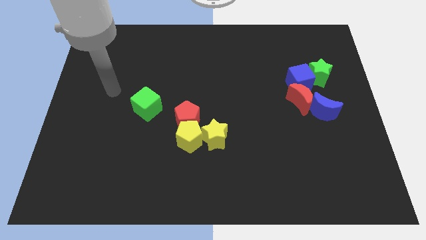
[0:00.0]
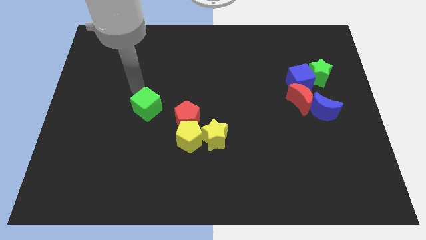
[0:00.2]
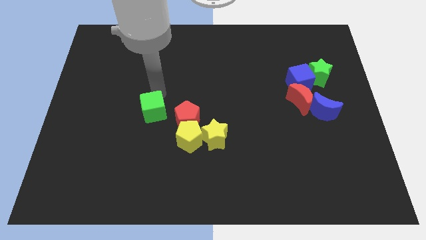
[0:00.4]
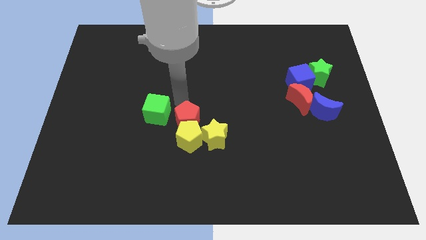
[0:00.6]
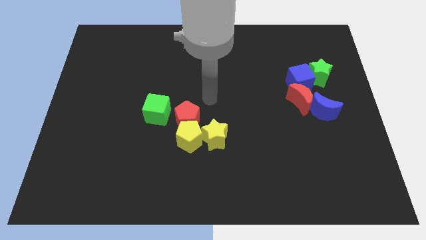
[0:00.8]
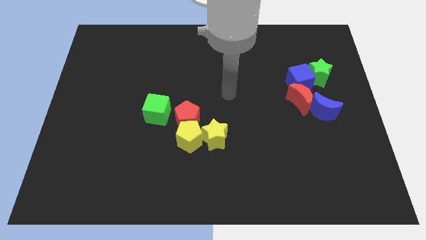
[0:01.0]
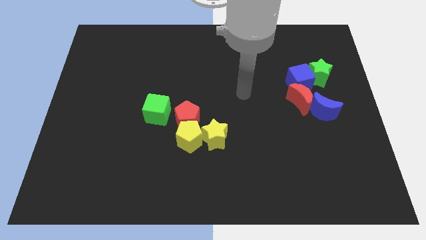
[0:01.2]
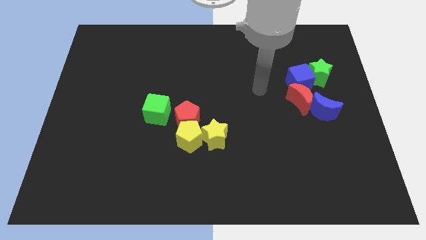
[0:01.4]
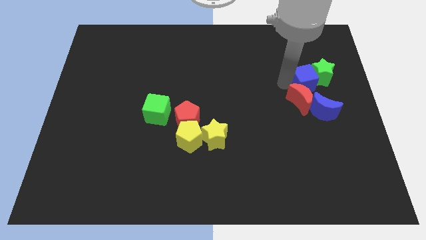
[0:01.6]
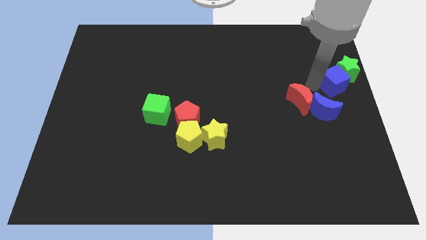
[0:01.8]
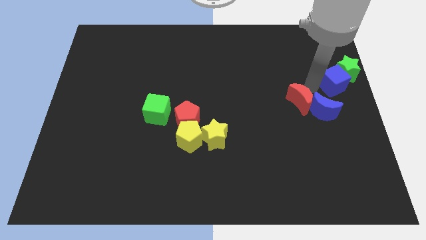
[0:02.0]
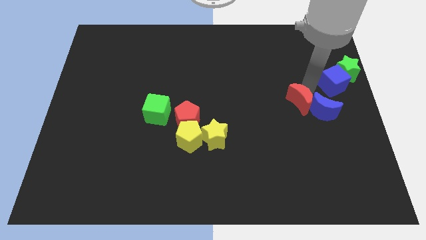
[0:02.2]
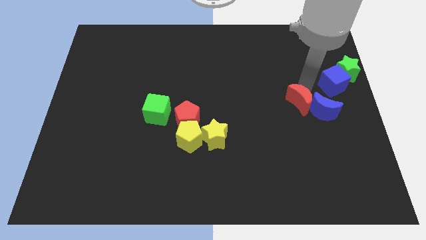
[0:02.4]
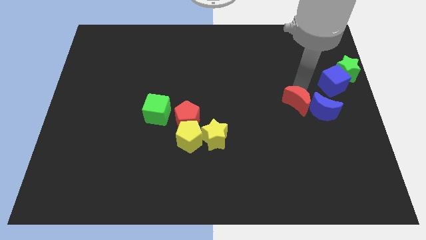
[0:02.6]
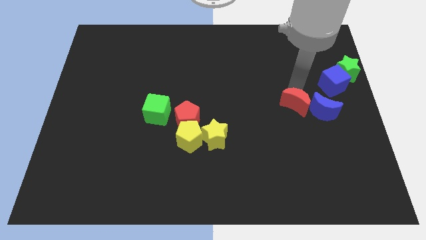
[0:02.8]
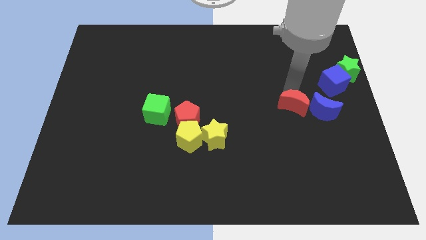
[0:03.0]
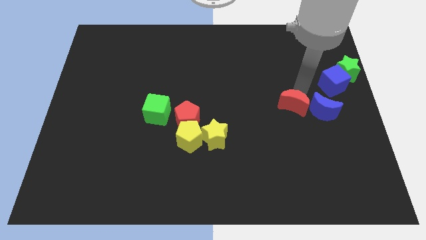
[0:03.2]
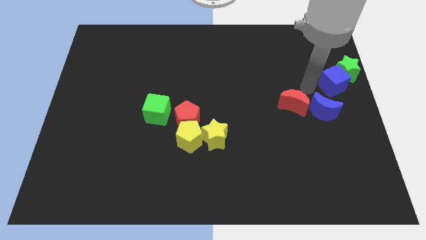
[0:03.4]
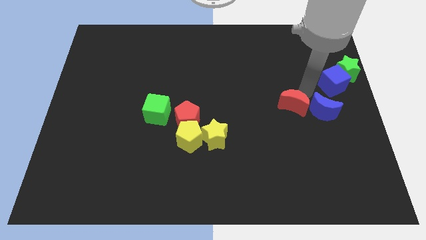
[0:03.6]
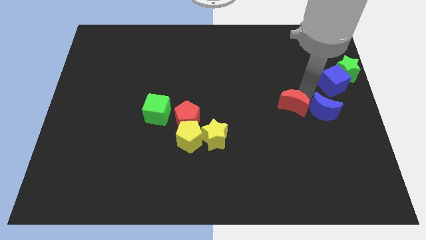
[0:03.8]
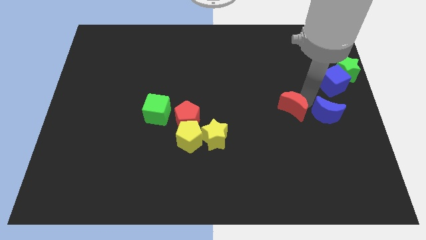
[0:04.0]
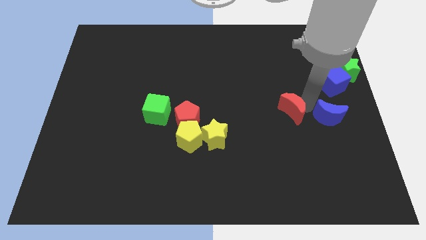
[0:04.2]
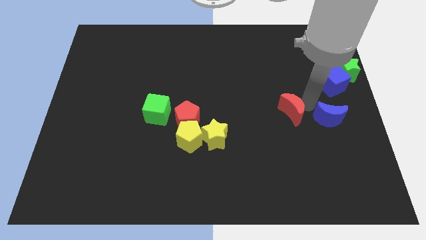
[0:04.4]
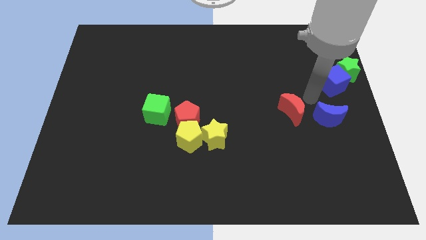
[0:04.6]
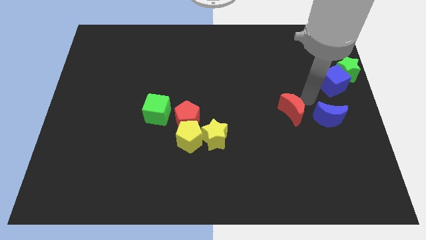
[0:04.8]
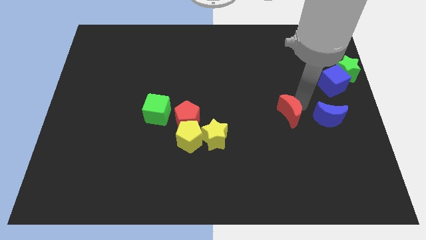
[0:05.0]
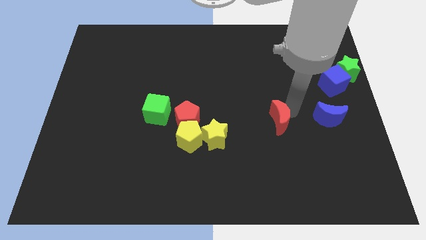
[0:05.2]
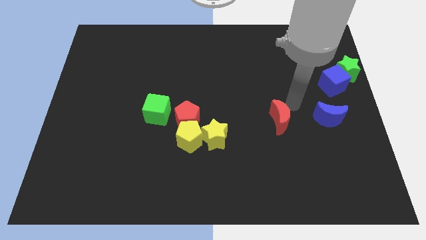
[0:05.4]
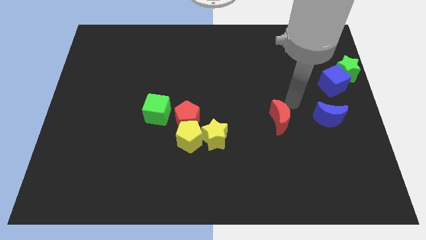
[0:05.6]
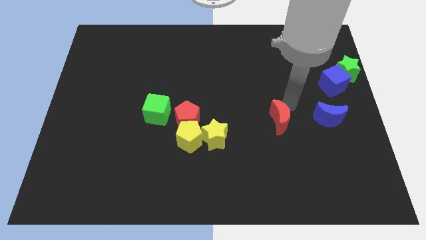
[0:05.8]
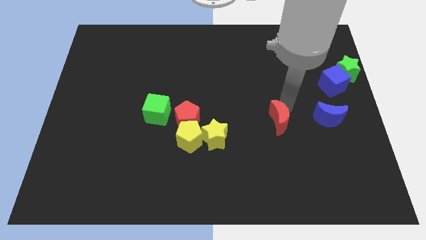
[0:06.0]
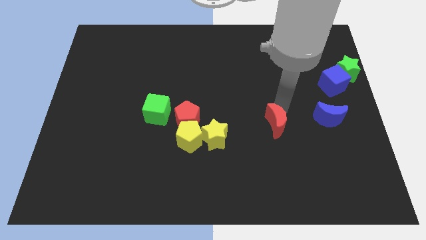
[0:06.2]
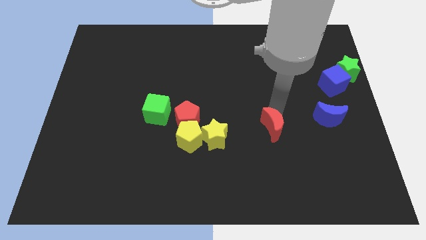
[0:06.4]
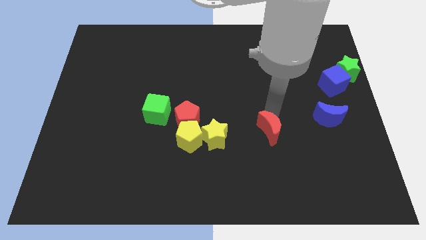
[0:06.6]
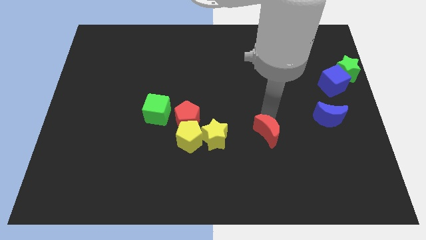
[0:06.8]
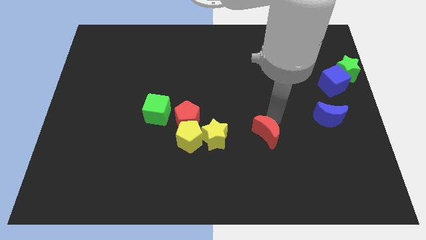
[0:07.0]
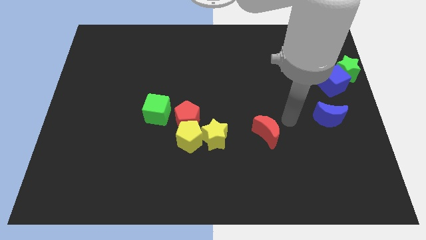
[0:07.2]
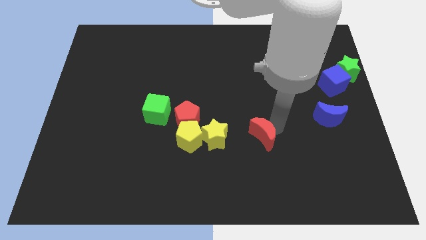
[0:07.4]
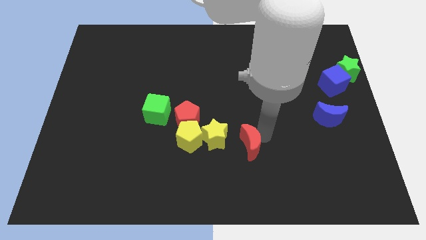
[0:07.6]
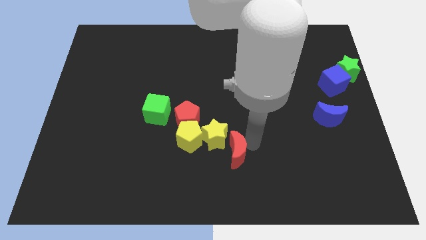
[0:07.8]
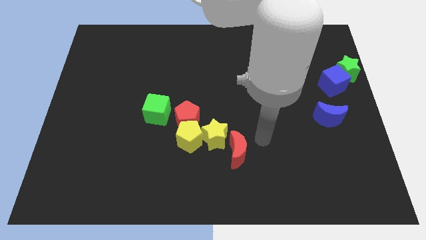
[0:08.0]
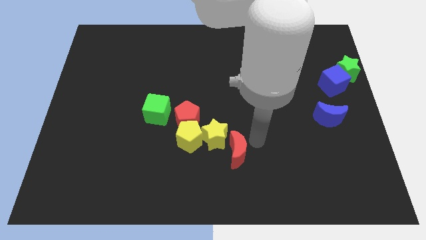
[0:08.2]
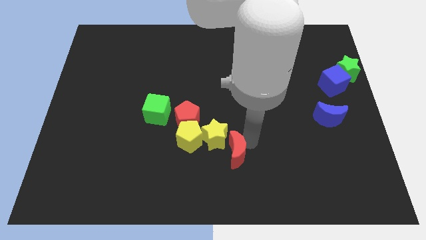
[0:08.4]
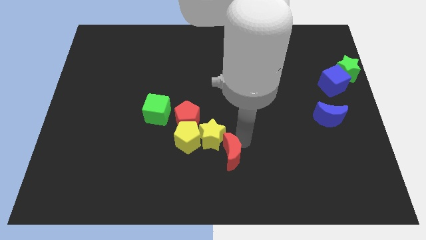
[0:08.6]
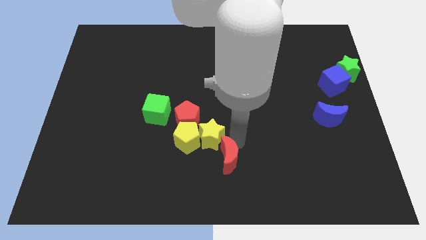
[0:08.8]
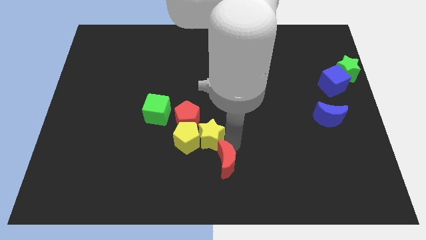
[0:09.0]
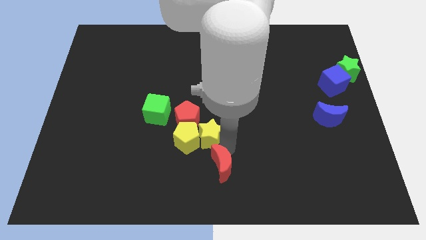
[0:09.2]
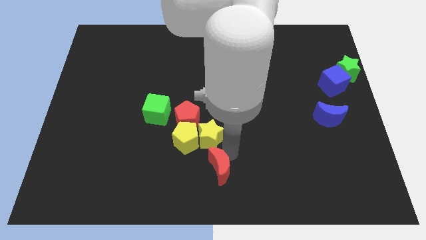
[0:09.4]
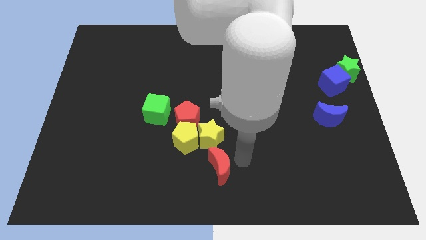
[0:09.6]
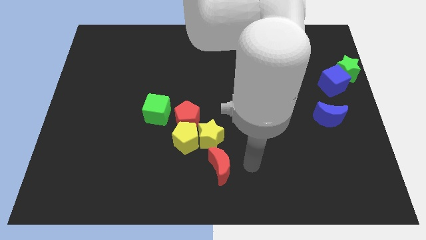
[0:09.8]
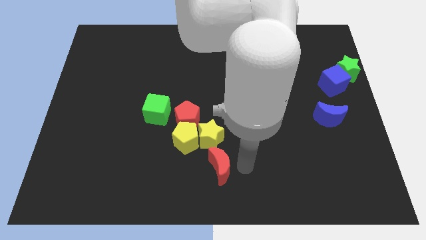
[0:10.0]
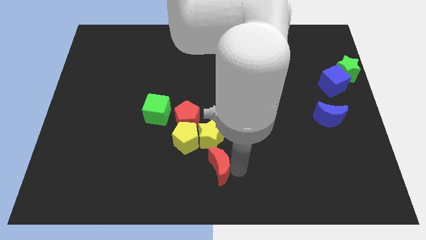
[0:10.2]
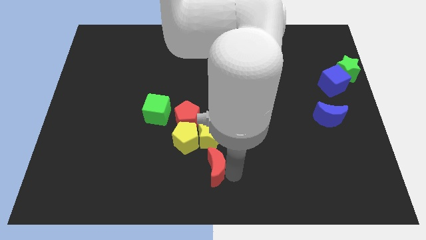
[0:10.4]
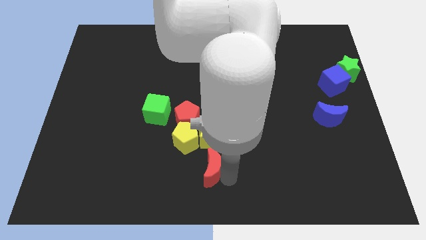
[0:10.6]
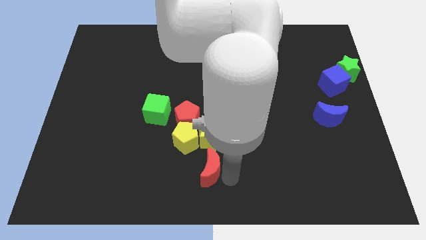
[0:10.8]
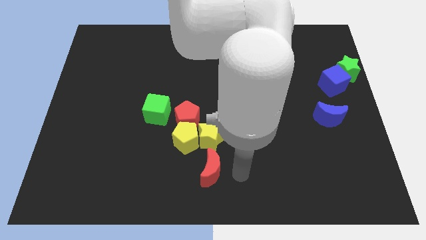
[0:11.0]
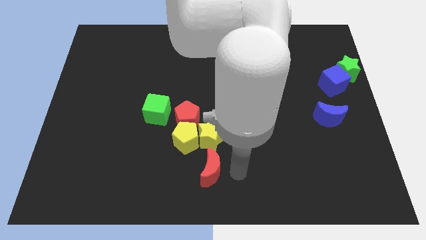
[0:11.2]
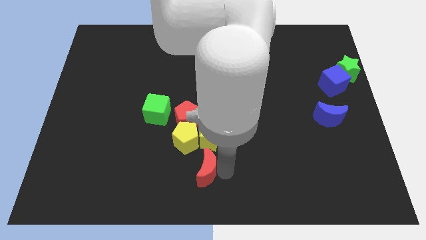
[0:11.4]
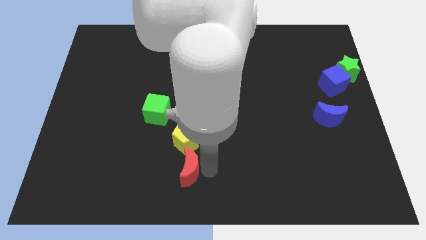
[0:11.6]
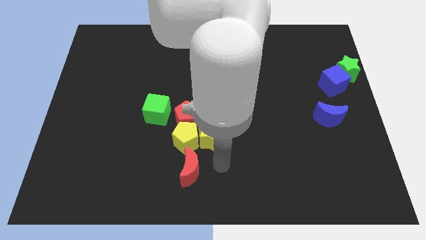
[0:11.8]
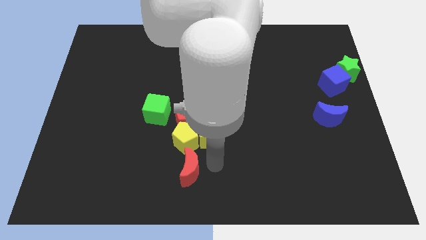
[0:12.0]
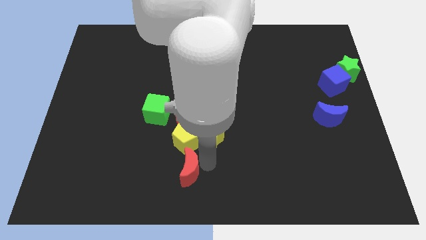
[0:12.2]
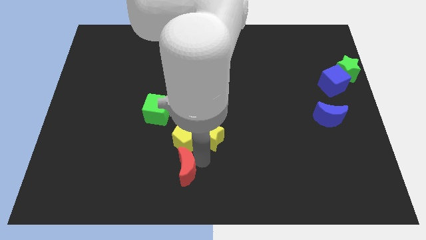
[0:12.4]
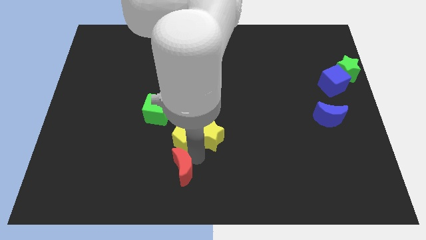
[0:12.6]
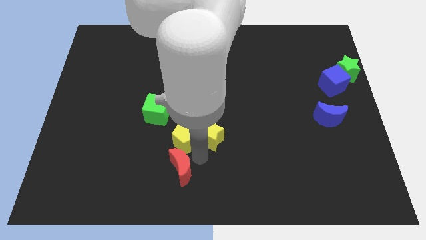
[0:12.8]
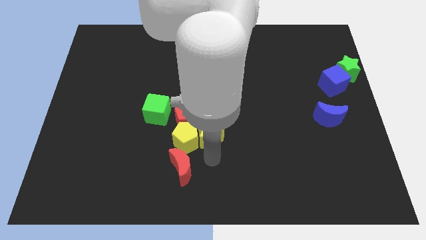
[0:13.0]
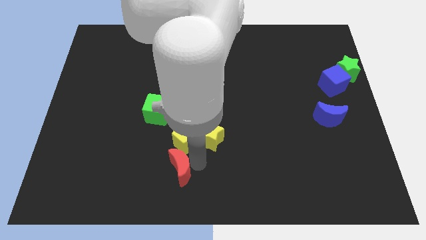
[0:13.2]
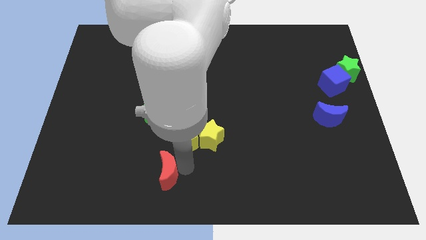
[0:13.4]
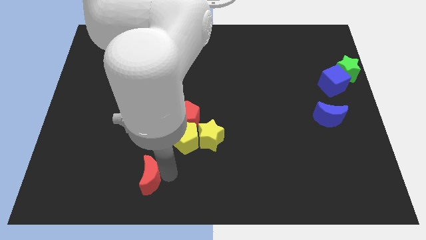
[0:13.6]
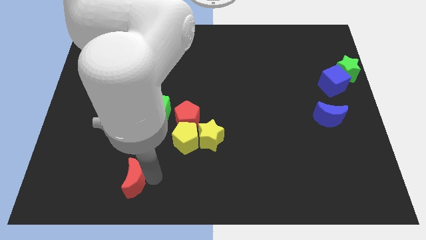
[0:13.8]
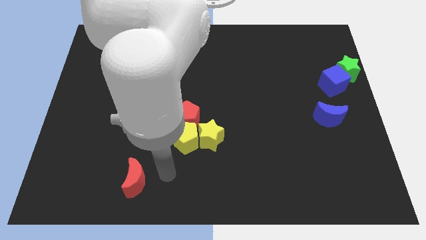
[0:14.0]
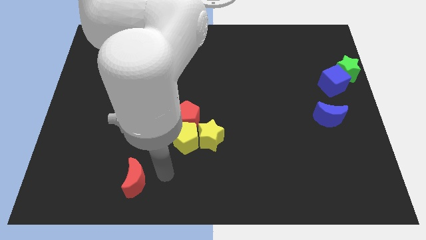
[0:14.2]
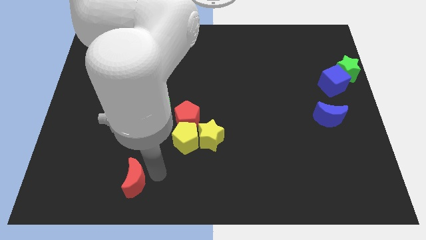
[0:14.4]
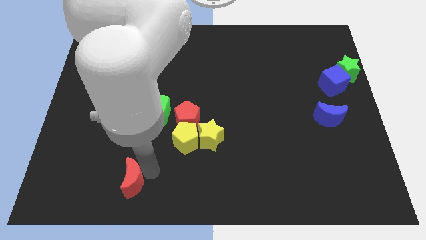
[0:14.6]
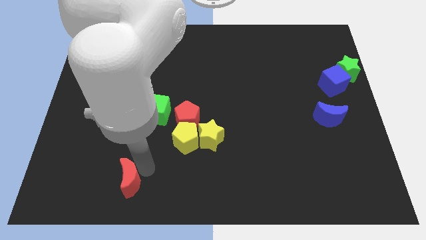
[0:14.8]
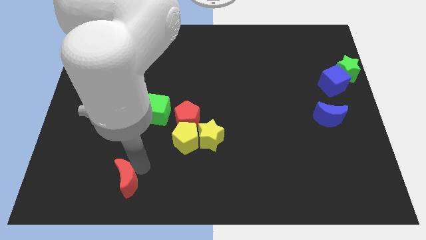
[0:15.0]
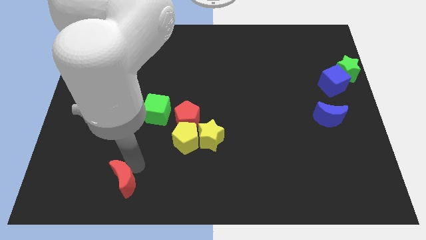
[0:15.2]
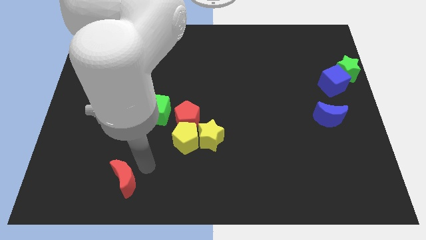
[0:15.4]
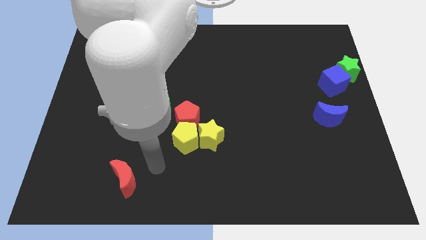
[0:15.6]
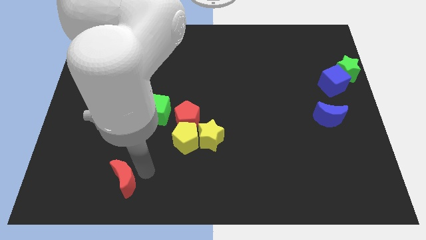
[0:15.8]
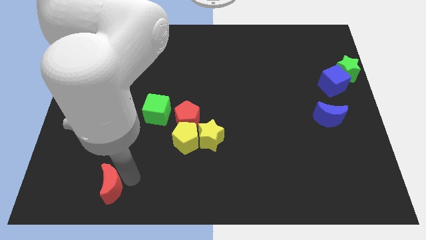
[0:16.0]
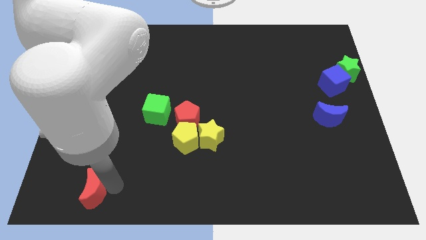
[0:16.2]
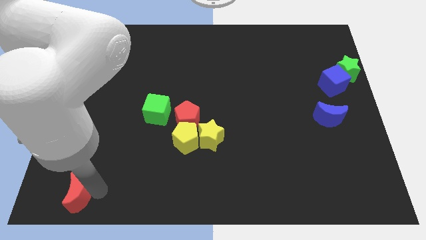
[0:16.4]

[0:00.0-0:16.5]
push the red moon to the bottom left corner
